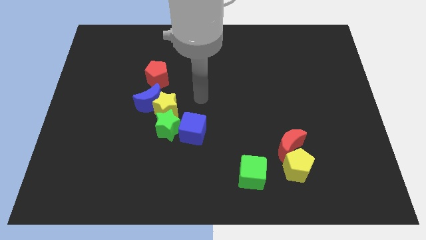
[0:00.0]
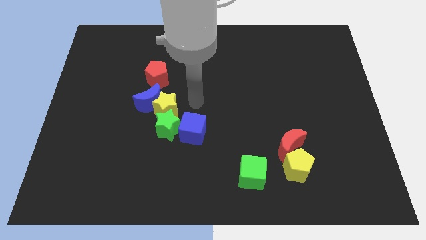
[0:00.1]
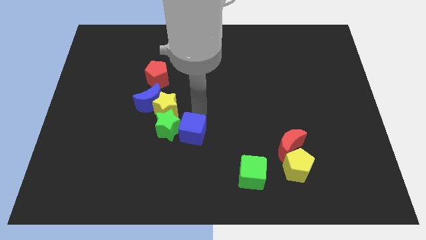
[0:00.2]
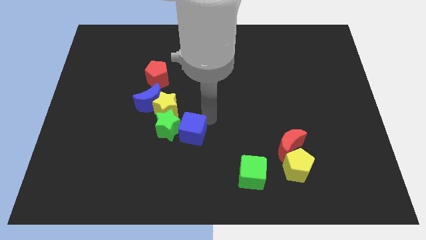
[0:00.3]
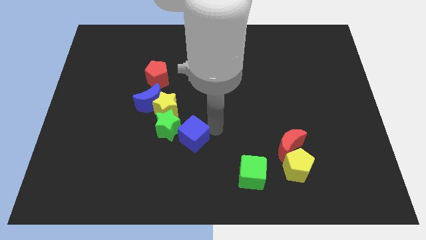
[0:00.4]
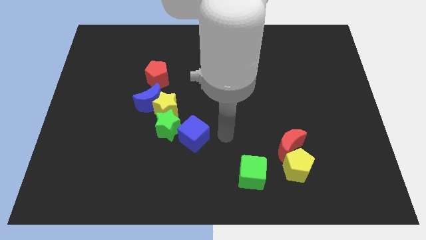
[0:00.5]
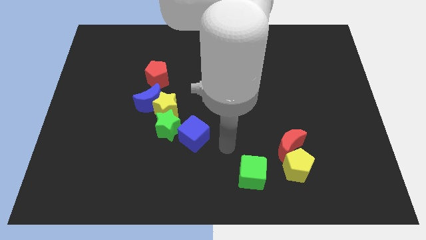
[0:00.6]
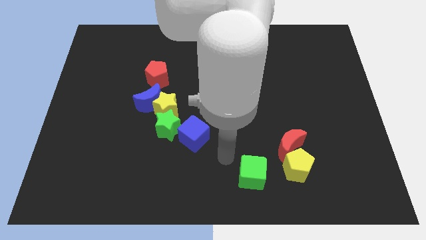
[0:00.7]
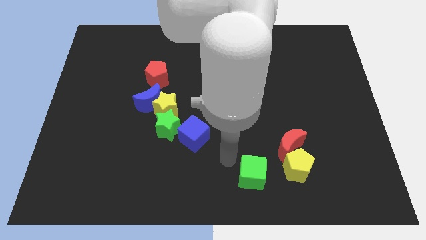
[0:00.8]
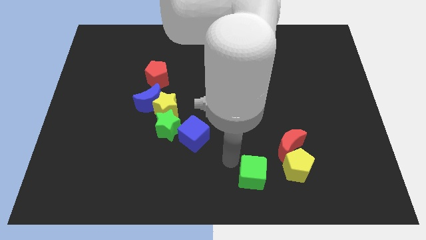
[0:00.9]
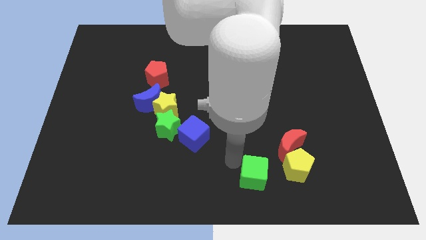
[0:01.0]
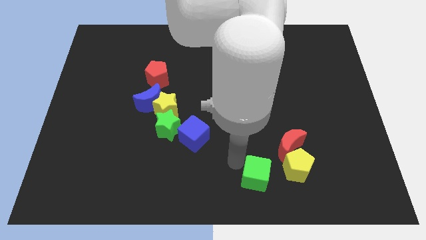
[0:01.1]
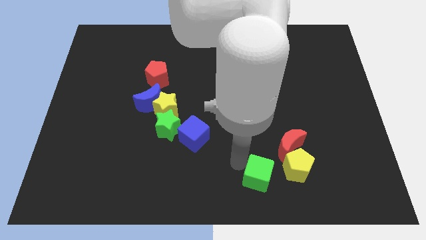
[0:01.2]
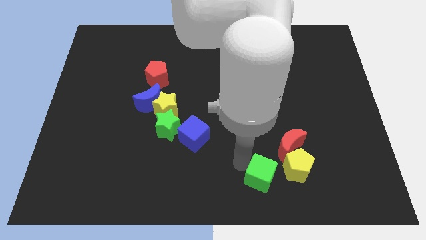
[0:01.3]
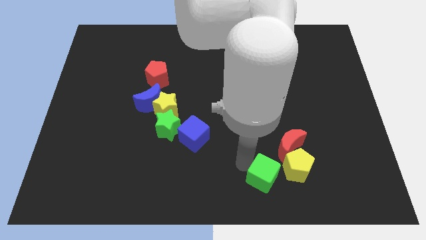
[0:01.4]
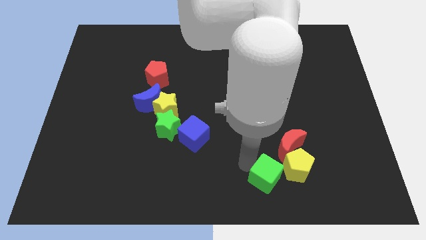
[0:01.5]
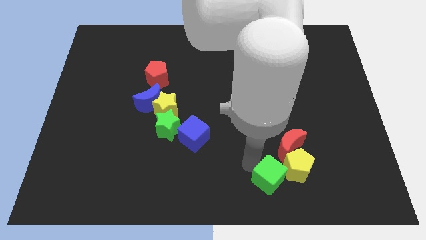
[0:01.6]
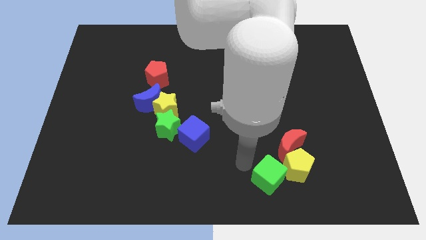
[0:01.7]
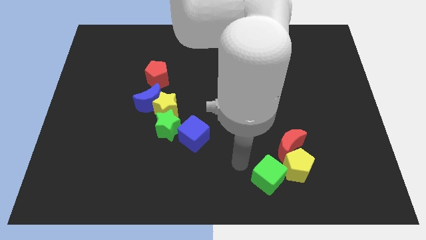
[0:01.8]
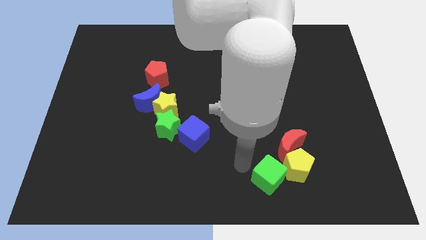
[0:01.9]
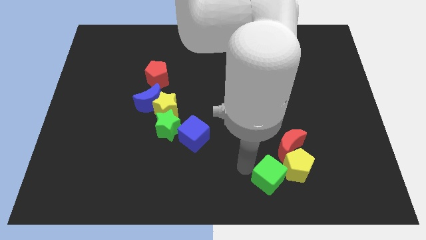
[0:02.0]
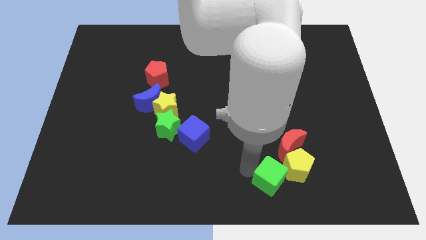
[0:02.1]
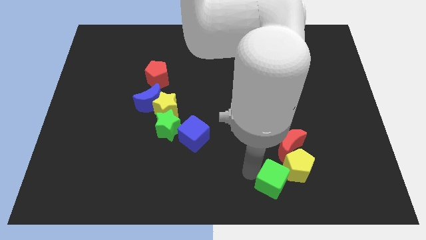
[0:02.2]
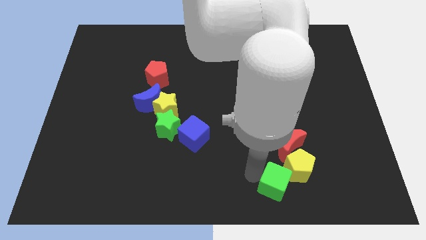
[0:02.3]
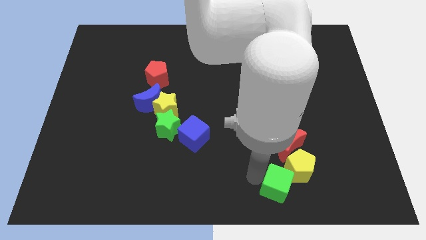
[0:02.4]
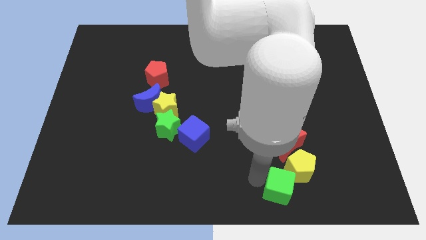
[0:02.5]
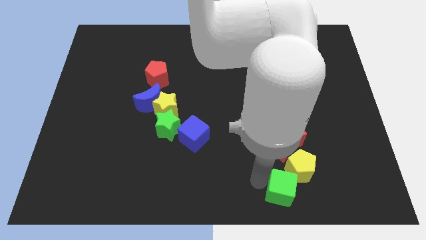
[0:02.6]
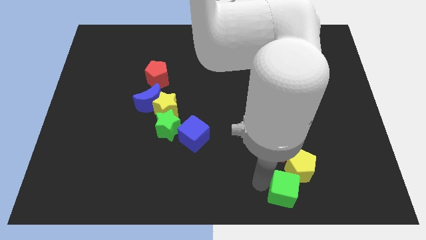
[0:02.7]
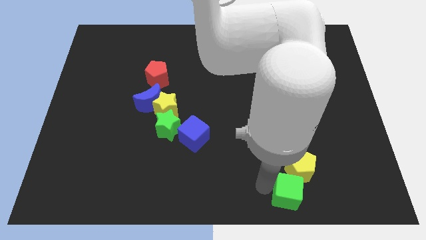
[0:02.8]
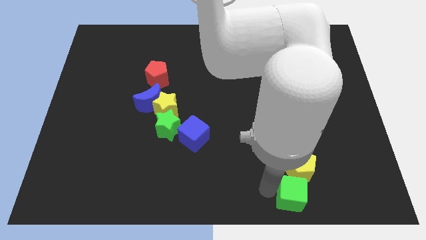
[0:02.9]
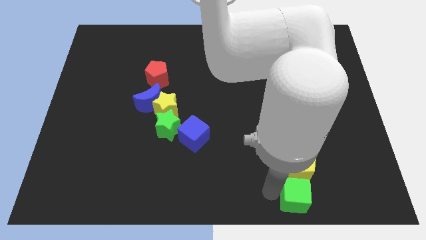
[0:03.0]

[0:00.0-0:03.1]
push the green cube right somewhat

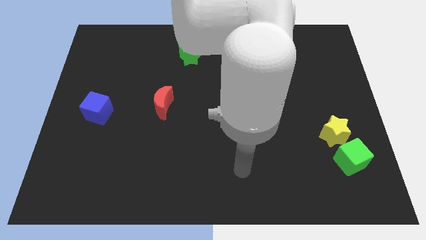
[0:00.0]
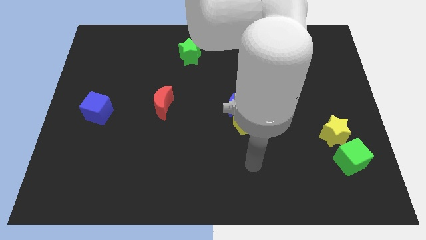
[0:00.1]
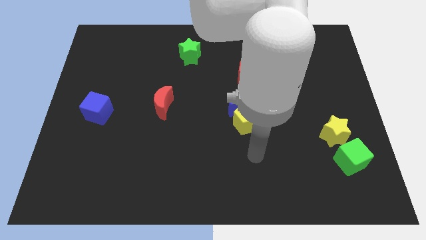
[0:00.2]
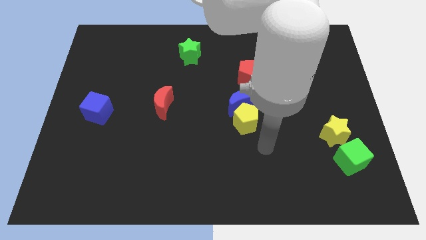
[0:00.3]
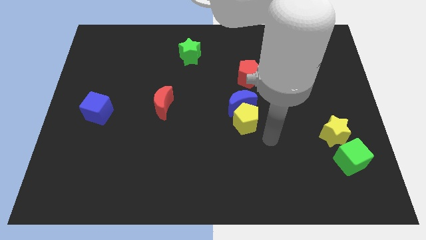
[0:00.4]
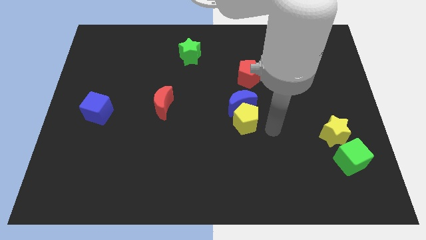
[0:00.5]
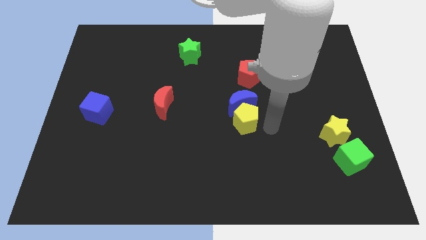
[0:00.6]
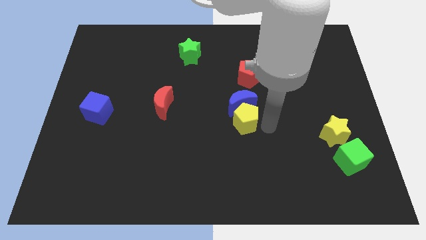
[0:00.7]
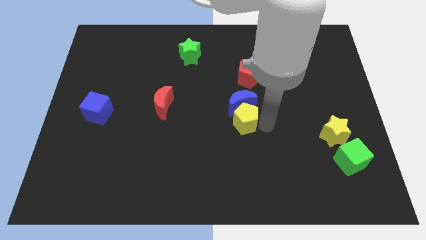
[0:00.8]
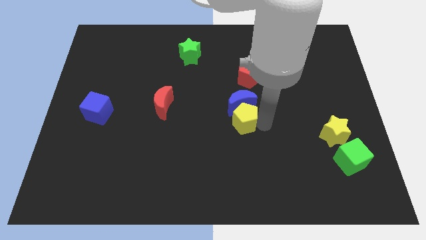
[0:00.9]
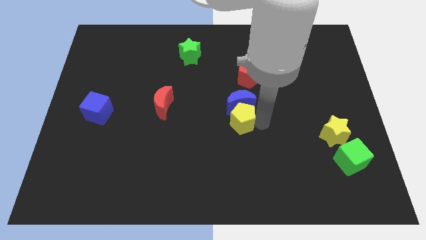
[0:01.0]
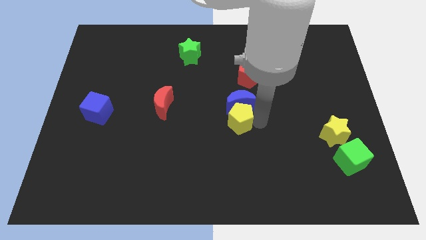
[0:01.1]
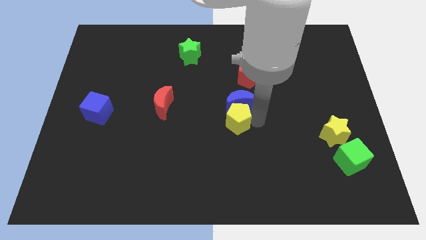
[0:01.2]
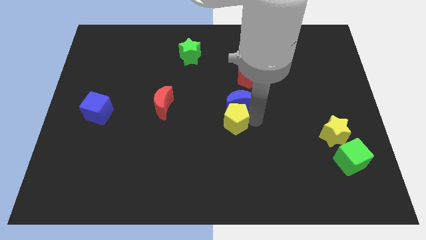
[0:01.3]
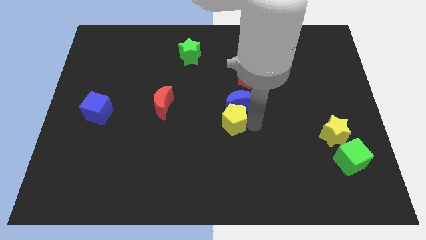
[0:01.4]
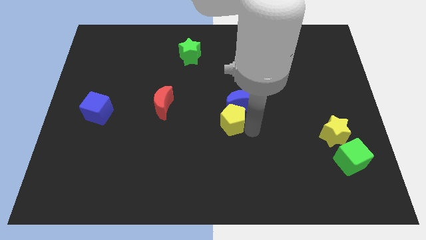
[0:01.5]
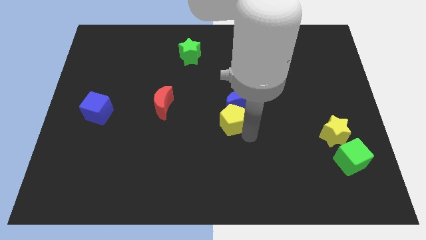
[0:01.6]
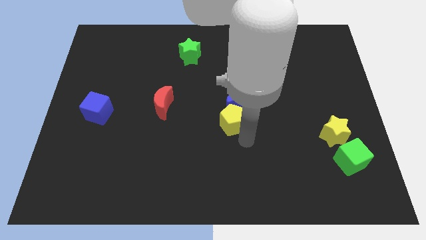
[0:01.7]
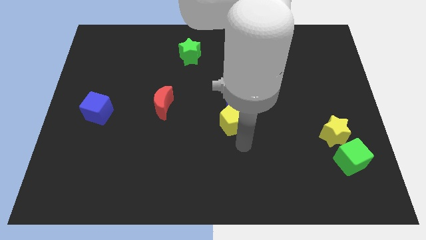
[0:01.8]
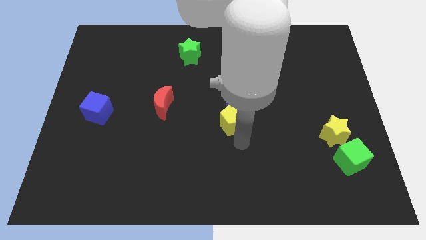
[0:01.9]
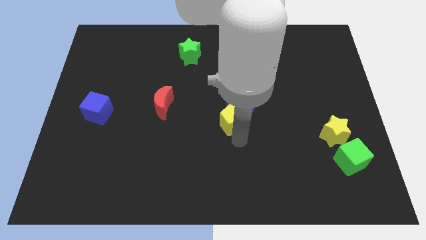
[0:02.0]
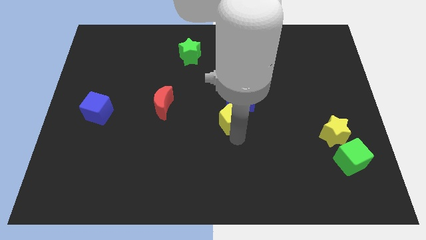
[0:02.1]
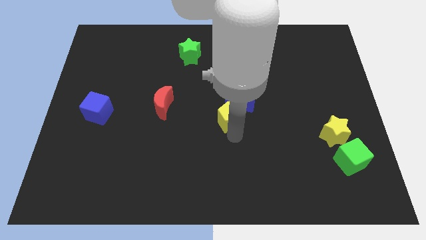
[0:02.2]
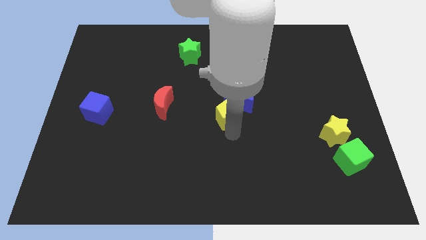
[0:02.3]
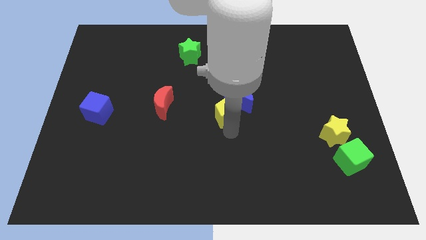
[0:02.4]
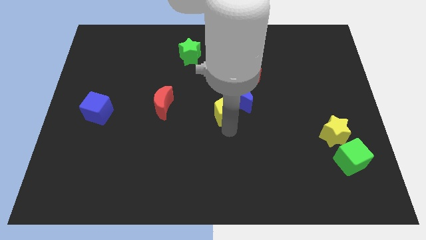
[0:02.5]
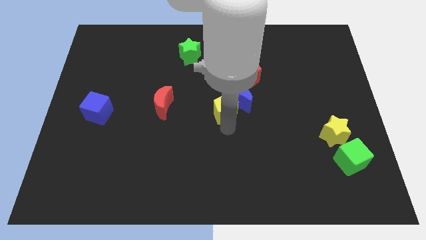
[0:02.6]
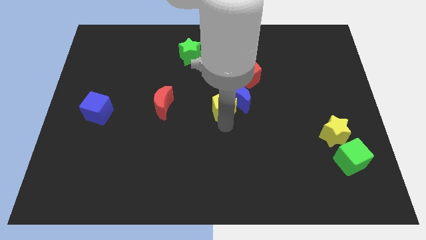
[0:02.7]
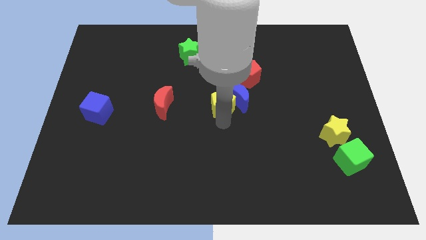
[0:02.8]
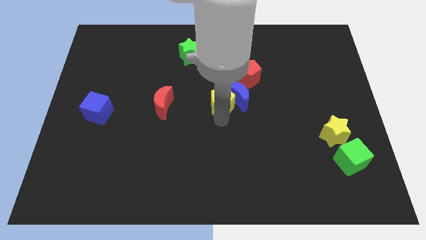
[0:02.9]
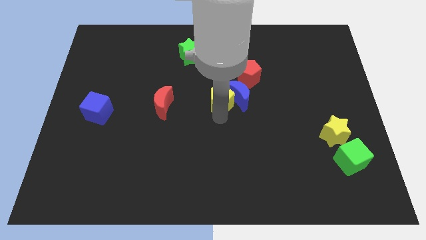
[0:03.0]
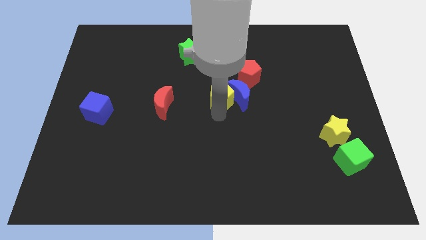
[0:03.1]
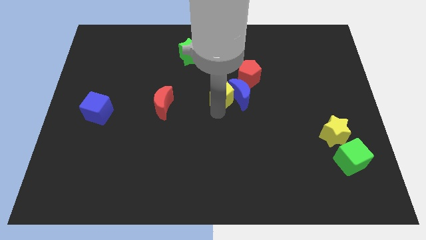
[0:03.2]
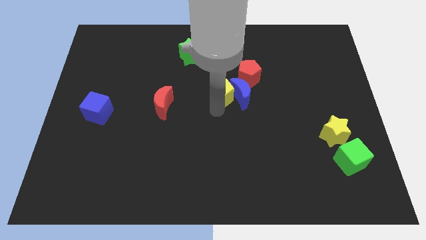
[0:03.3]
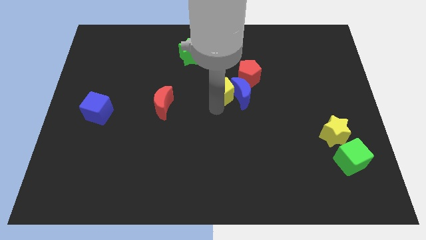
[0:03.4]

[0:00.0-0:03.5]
slightly push the yellow pentagon upwards

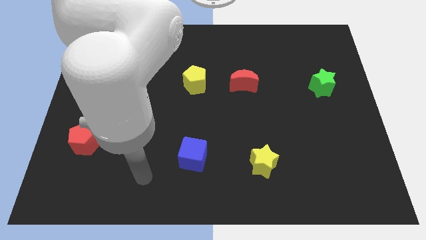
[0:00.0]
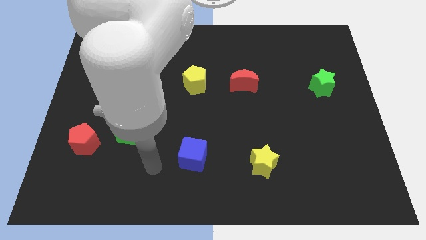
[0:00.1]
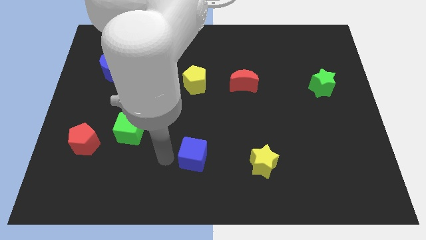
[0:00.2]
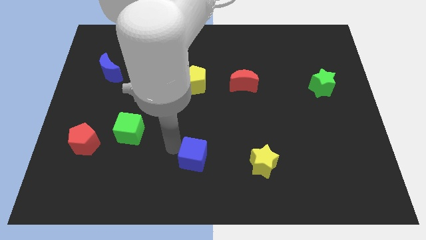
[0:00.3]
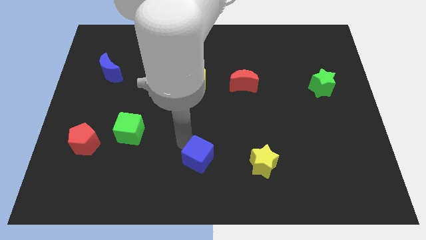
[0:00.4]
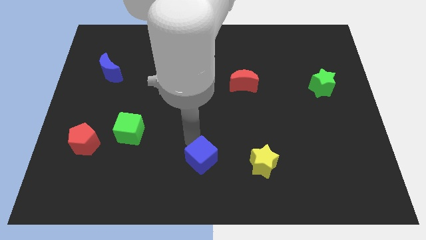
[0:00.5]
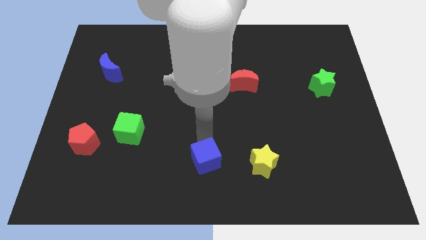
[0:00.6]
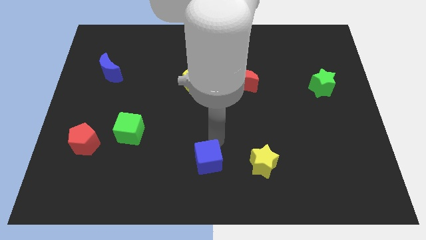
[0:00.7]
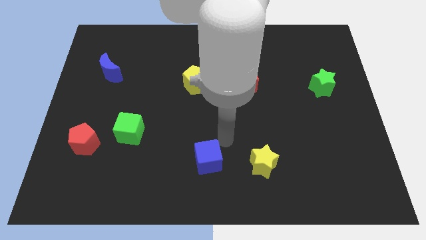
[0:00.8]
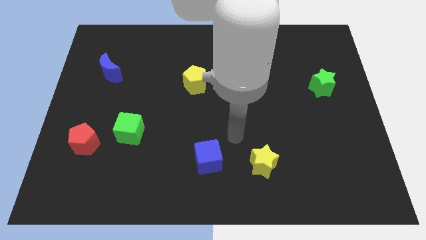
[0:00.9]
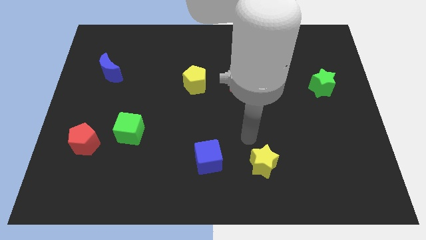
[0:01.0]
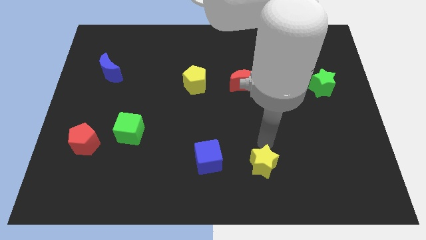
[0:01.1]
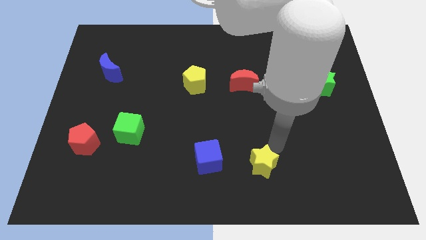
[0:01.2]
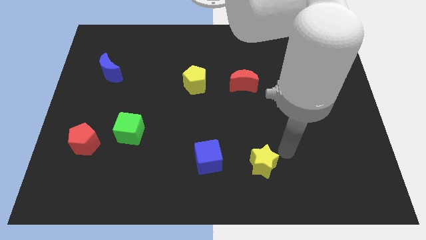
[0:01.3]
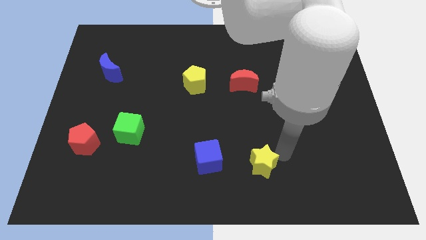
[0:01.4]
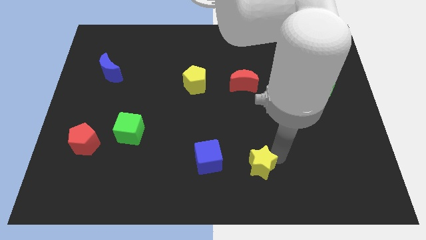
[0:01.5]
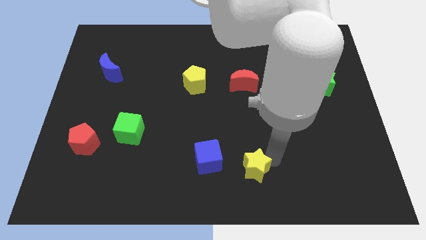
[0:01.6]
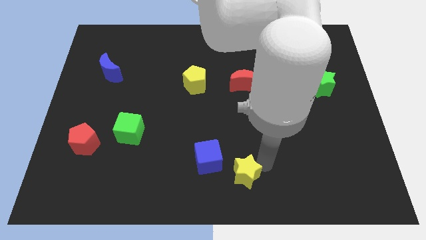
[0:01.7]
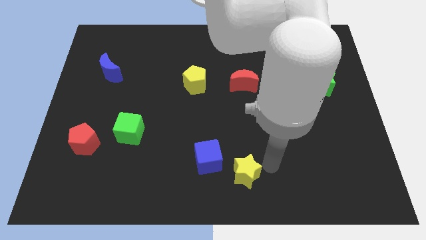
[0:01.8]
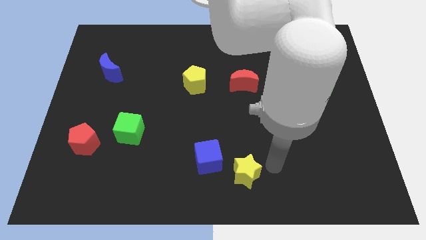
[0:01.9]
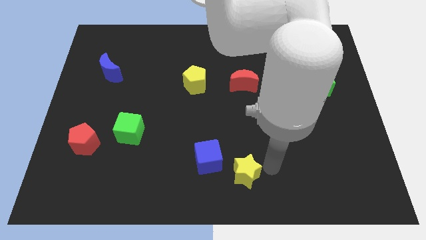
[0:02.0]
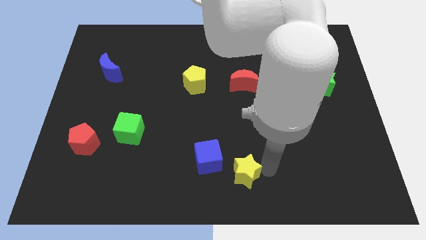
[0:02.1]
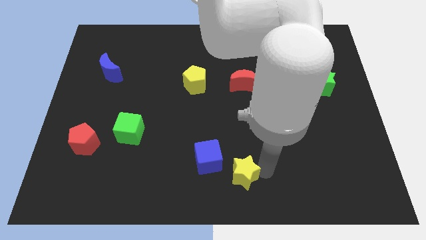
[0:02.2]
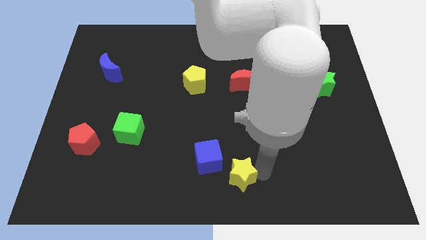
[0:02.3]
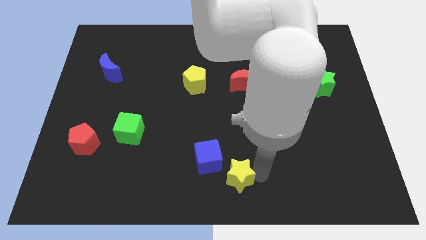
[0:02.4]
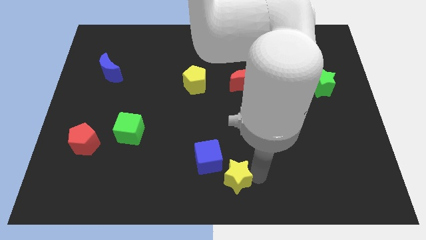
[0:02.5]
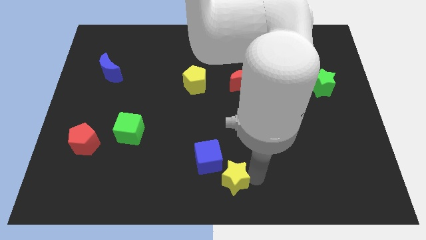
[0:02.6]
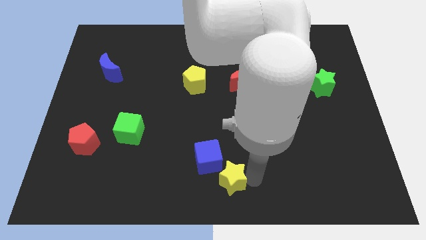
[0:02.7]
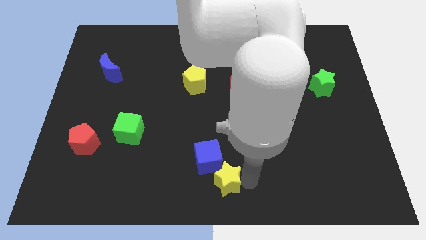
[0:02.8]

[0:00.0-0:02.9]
push the yellow star somewhat left
